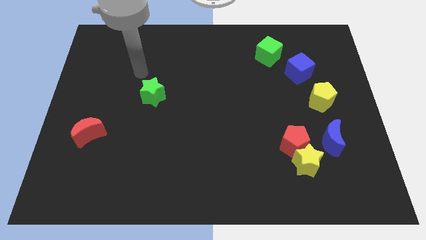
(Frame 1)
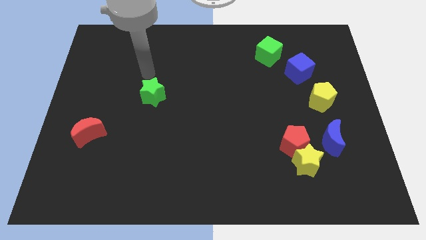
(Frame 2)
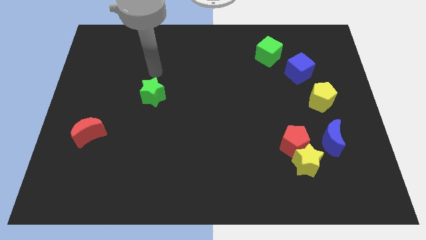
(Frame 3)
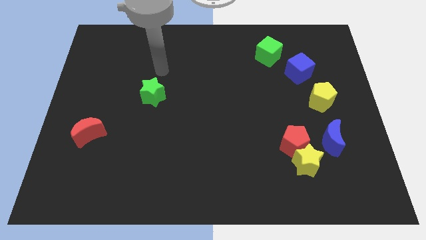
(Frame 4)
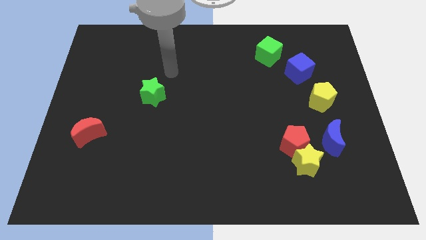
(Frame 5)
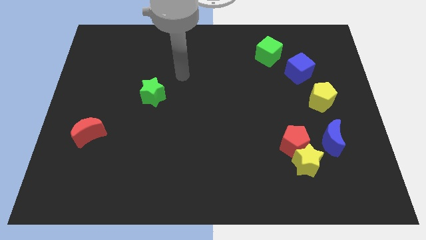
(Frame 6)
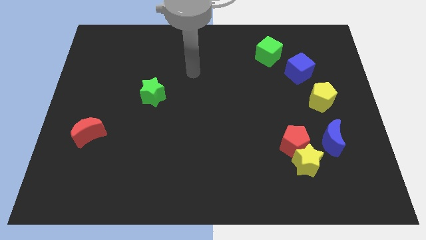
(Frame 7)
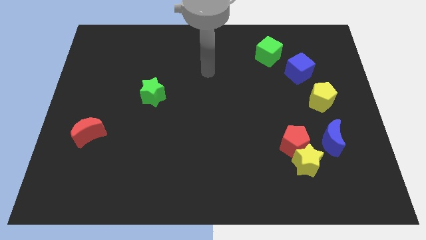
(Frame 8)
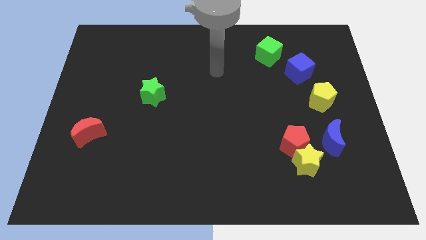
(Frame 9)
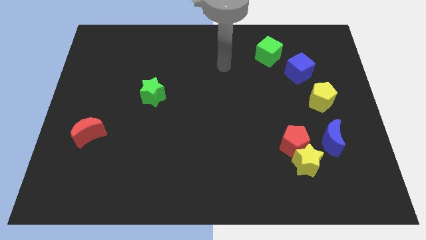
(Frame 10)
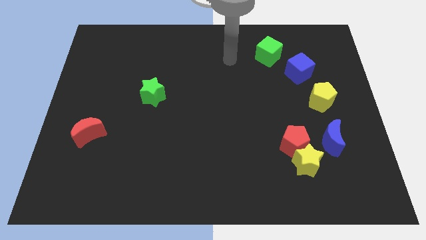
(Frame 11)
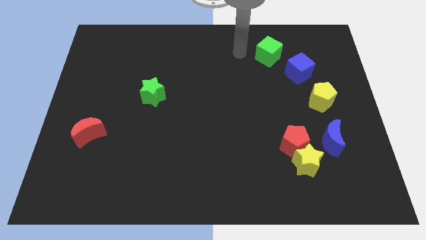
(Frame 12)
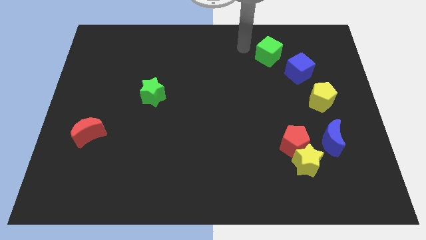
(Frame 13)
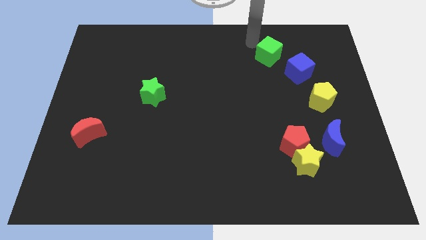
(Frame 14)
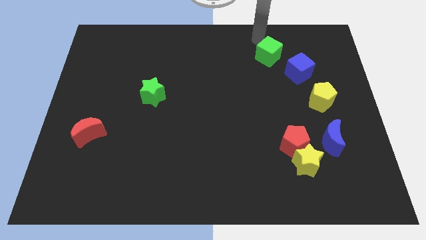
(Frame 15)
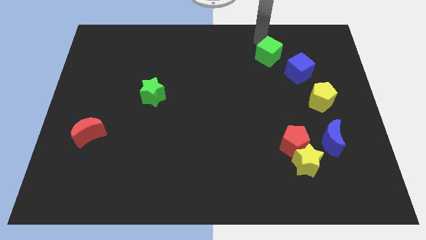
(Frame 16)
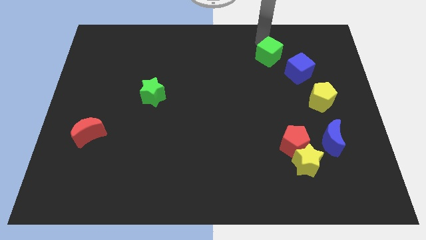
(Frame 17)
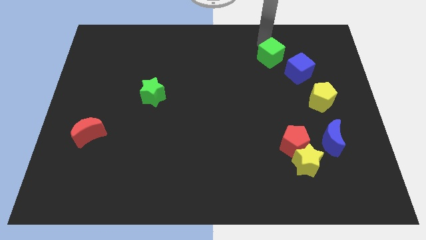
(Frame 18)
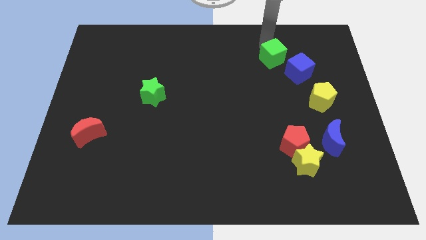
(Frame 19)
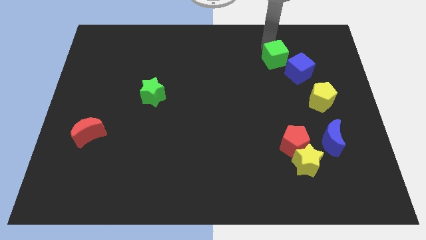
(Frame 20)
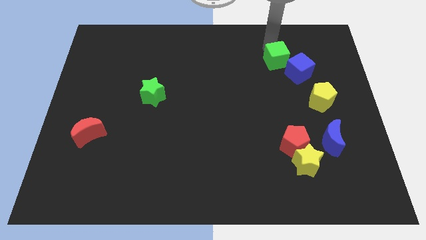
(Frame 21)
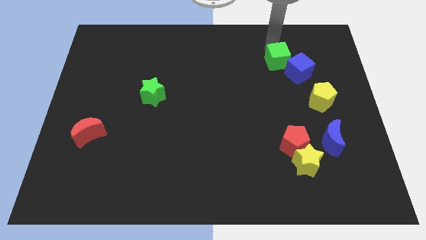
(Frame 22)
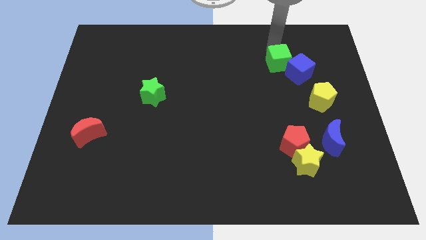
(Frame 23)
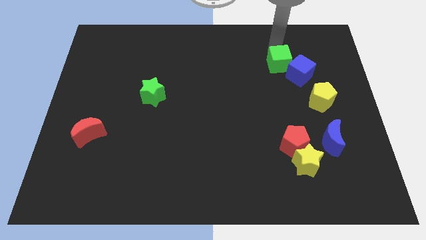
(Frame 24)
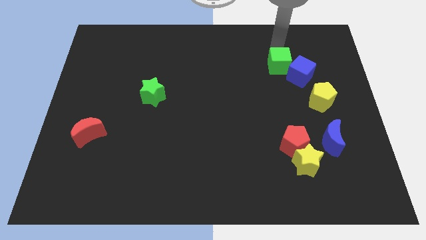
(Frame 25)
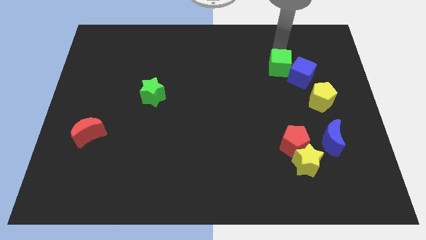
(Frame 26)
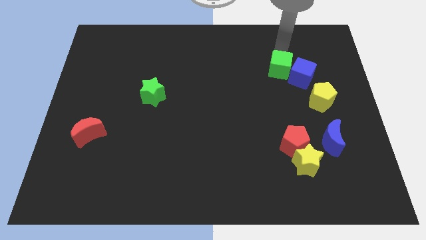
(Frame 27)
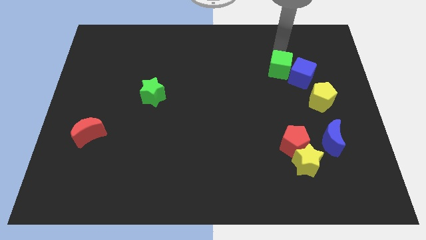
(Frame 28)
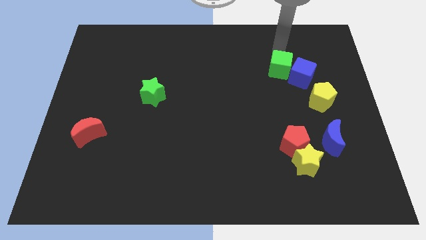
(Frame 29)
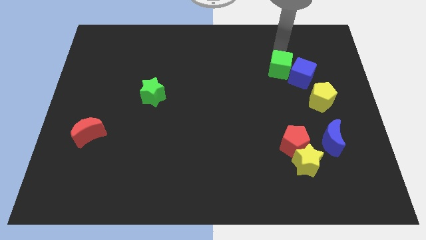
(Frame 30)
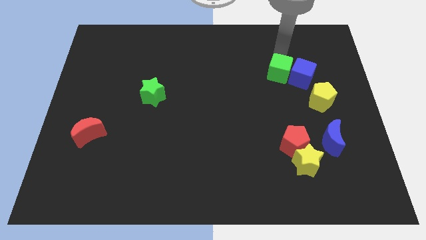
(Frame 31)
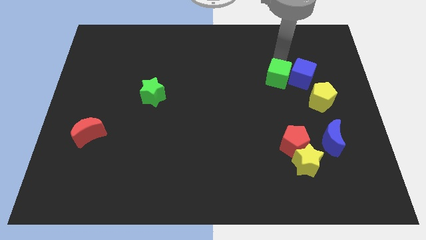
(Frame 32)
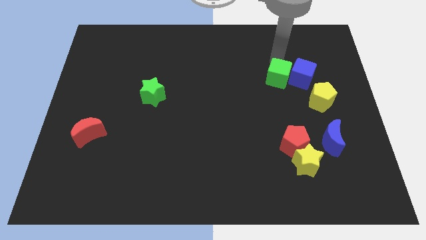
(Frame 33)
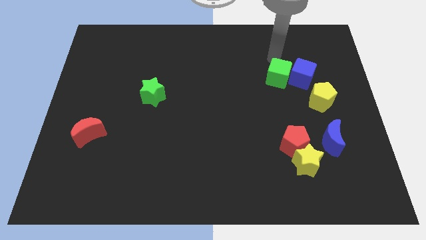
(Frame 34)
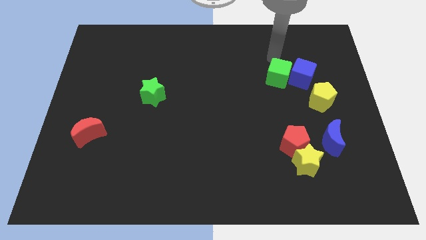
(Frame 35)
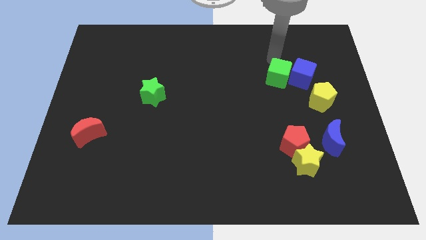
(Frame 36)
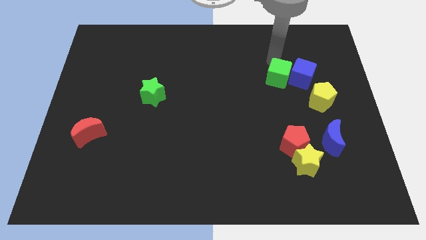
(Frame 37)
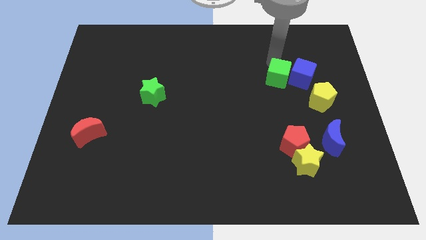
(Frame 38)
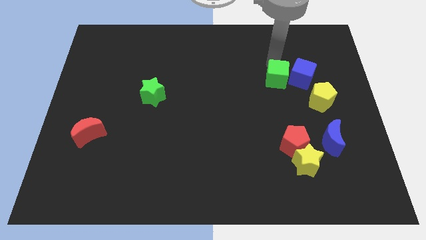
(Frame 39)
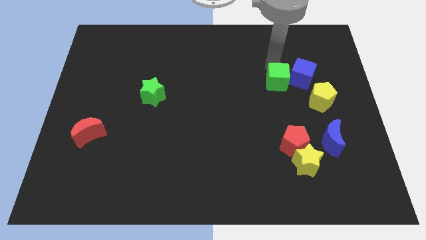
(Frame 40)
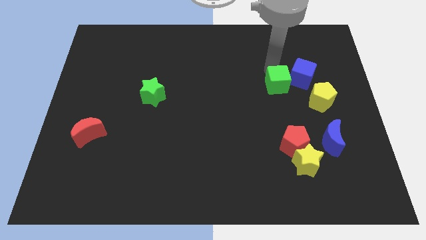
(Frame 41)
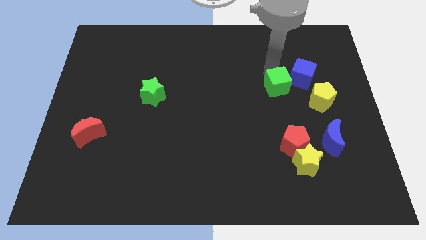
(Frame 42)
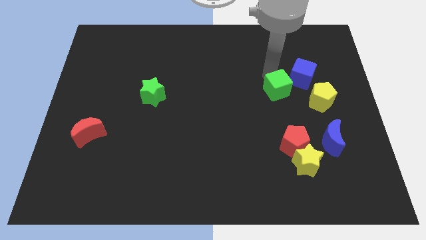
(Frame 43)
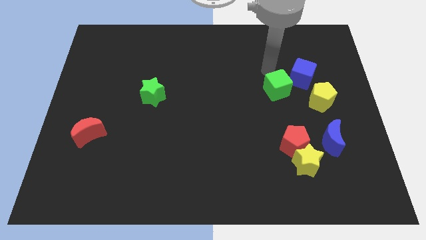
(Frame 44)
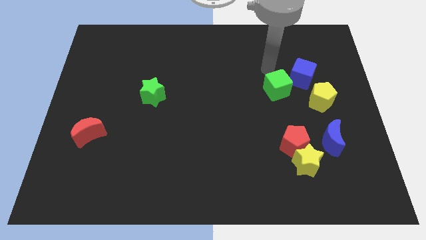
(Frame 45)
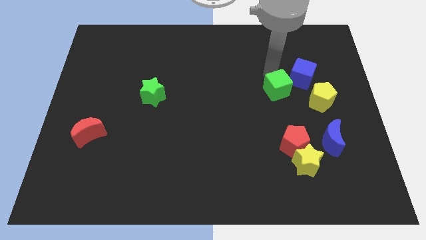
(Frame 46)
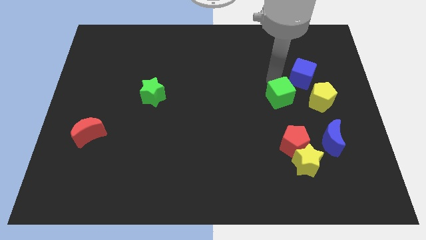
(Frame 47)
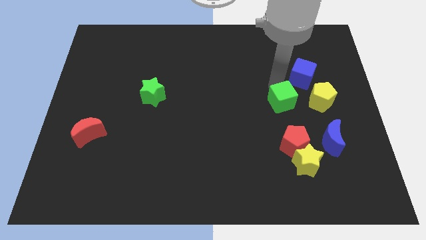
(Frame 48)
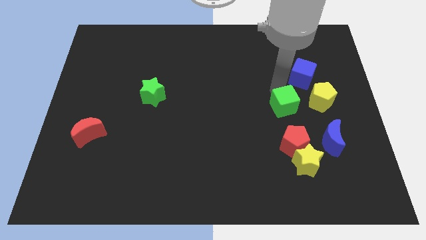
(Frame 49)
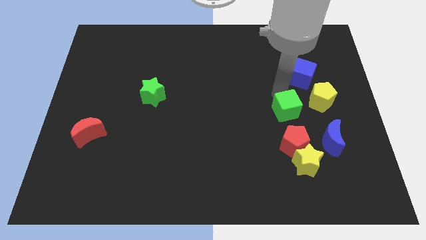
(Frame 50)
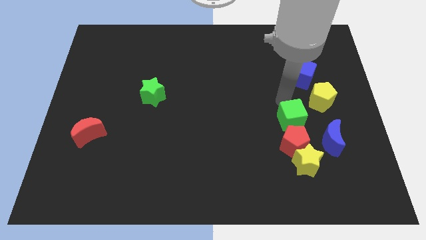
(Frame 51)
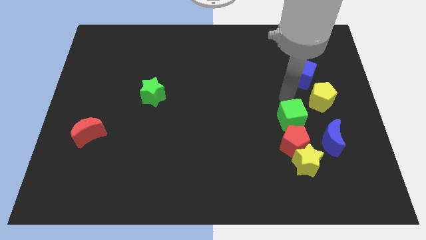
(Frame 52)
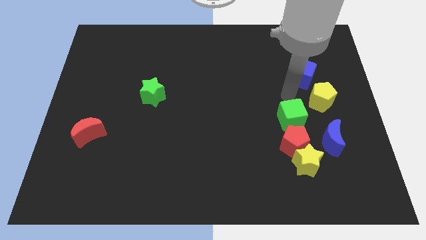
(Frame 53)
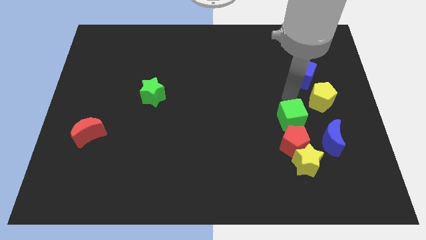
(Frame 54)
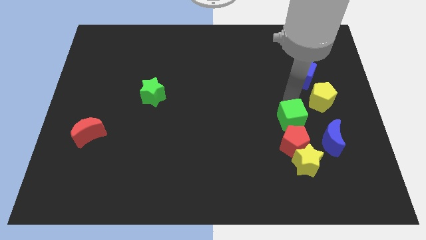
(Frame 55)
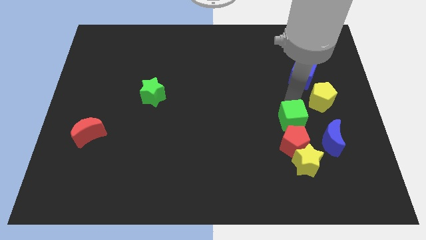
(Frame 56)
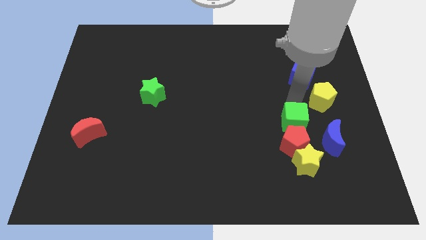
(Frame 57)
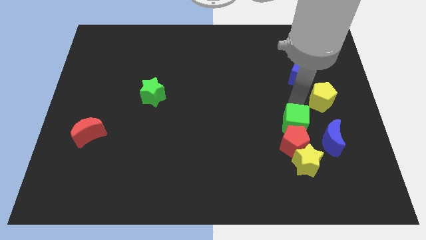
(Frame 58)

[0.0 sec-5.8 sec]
put the green cube close to the red pentagon
